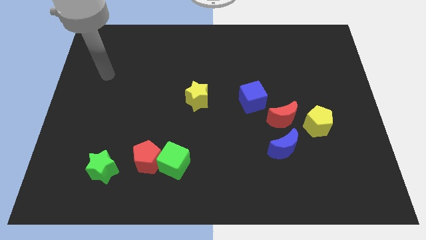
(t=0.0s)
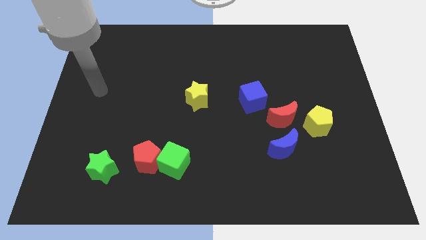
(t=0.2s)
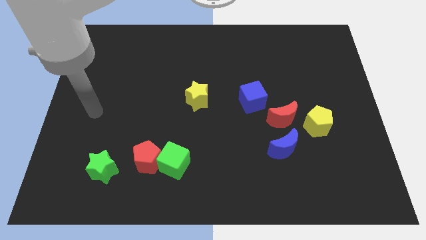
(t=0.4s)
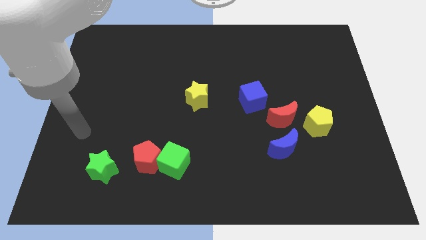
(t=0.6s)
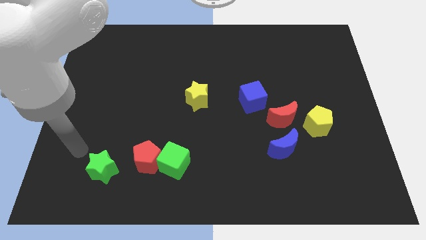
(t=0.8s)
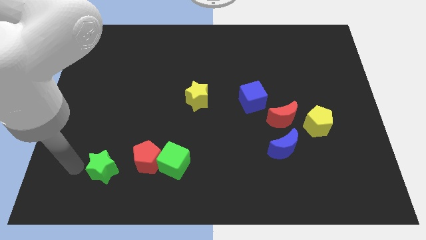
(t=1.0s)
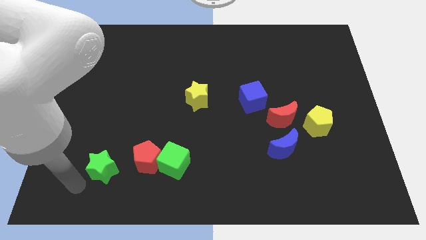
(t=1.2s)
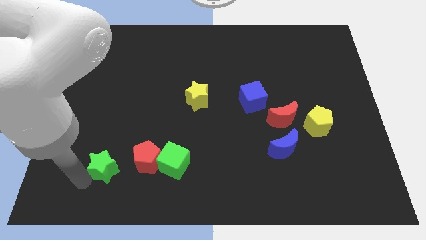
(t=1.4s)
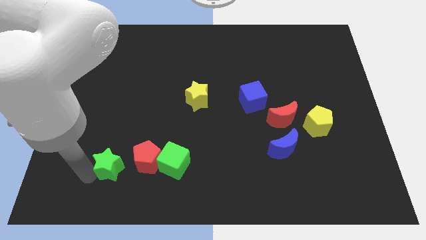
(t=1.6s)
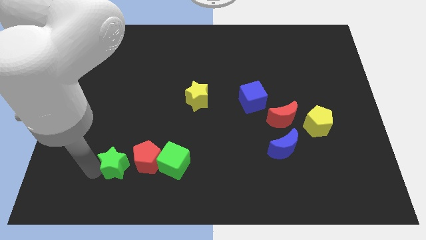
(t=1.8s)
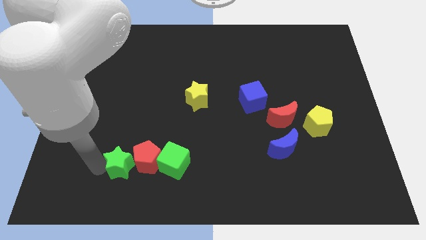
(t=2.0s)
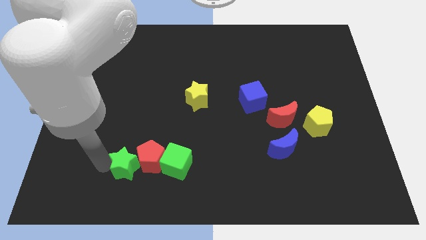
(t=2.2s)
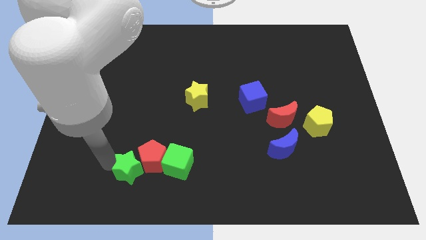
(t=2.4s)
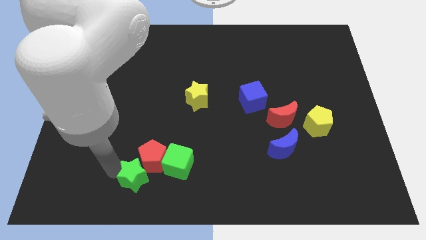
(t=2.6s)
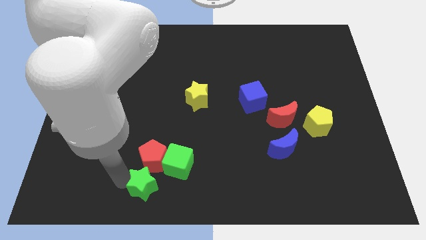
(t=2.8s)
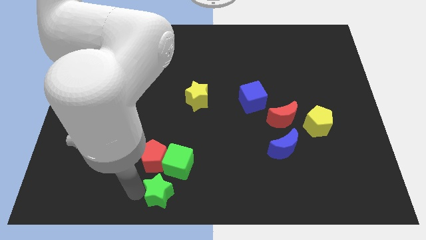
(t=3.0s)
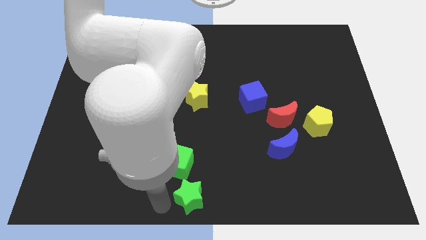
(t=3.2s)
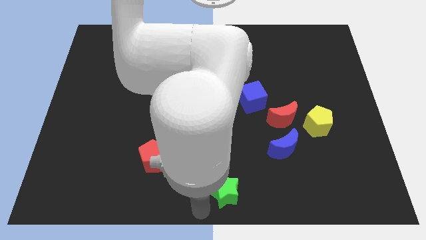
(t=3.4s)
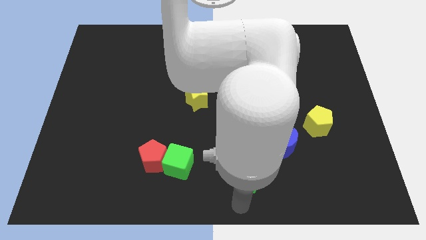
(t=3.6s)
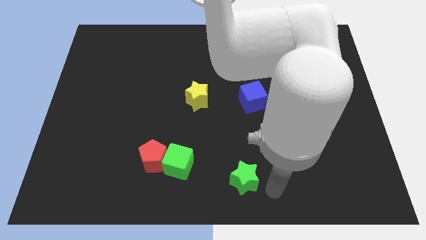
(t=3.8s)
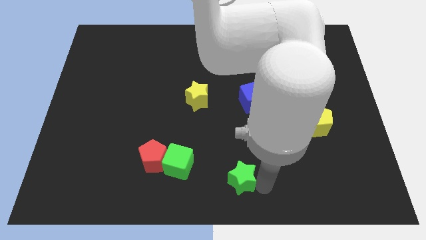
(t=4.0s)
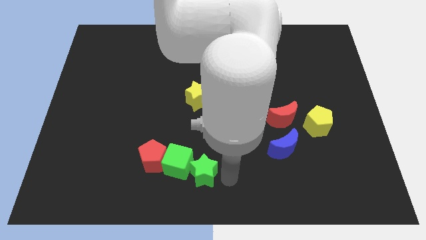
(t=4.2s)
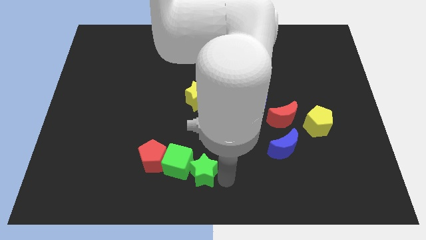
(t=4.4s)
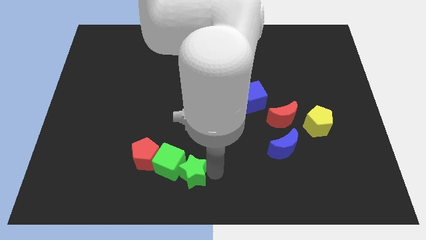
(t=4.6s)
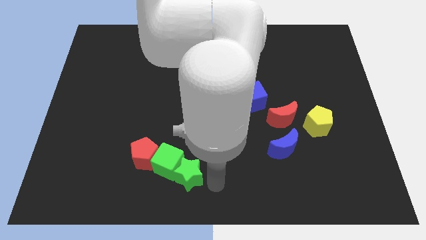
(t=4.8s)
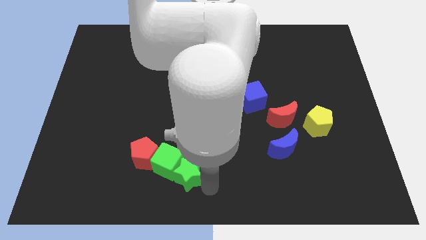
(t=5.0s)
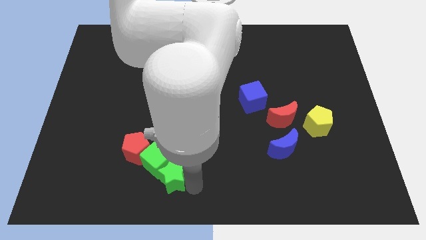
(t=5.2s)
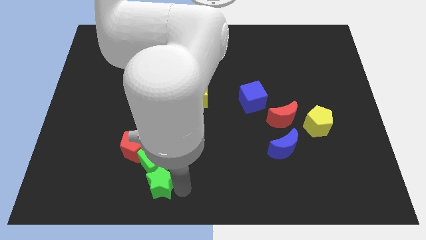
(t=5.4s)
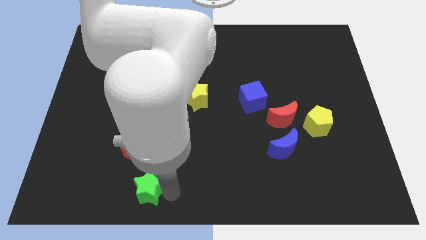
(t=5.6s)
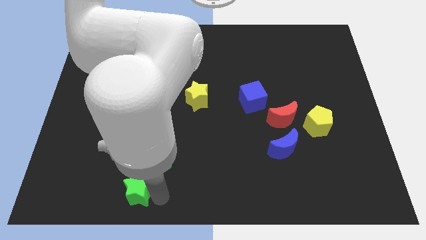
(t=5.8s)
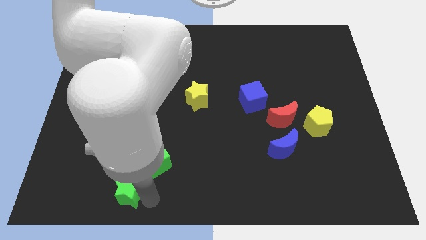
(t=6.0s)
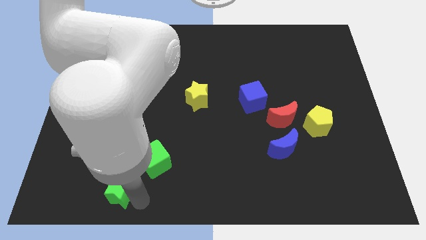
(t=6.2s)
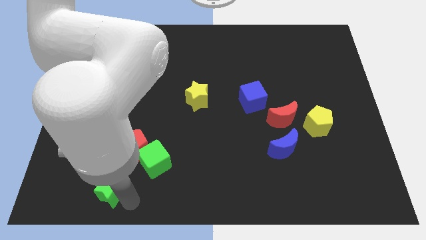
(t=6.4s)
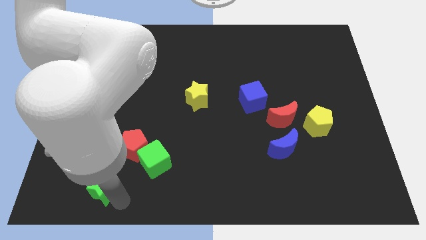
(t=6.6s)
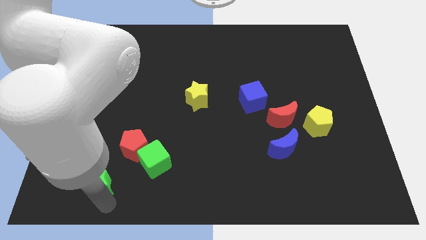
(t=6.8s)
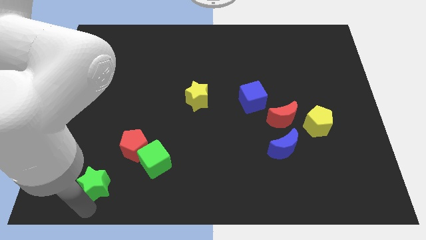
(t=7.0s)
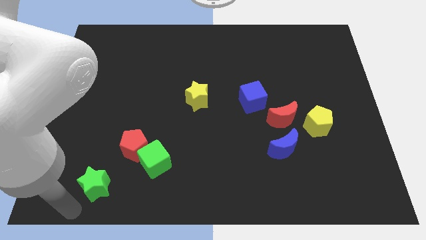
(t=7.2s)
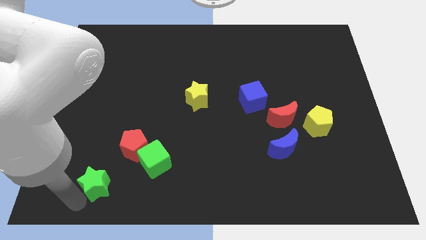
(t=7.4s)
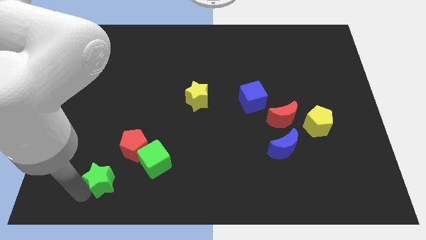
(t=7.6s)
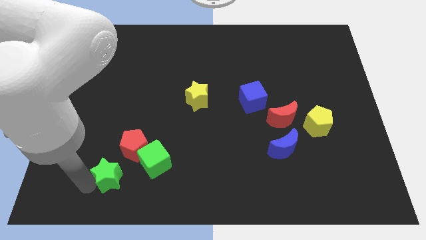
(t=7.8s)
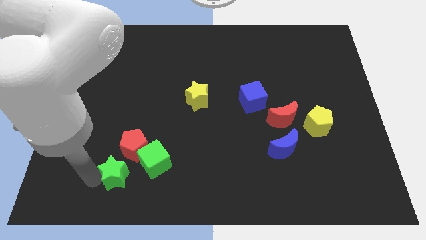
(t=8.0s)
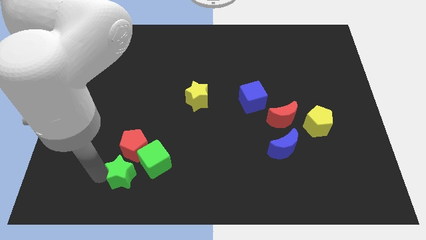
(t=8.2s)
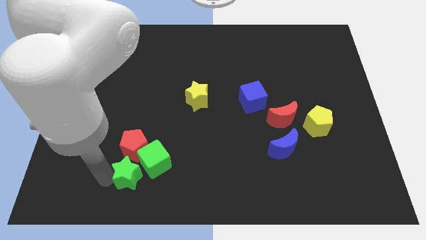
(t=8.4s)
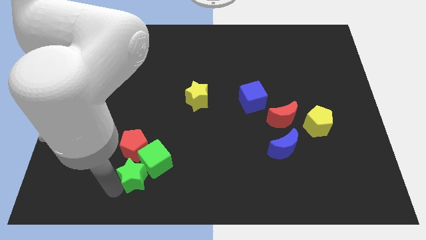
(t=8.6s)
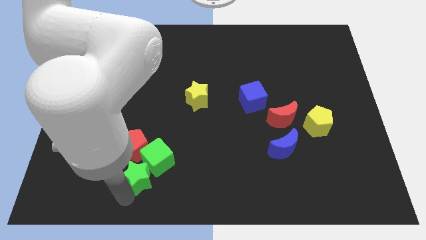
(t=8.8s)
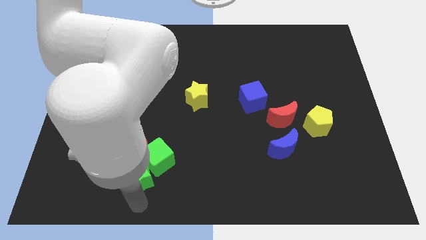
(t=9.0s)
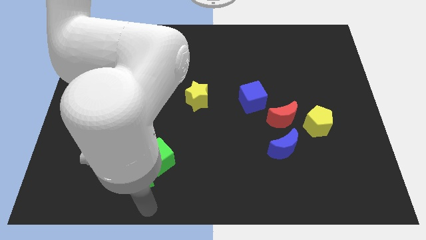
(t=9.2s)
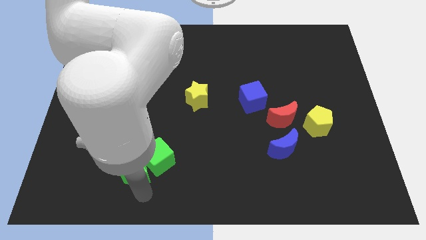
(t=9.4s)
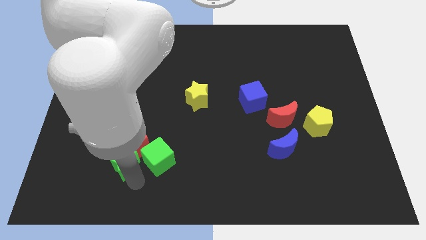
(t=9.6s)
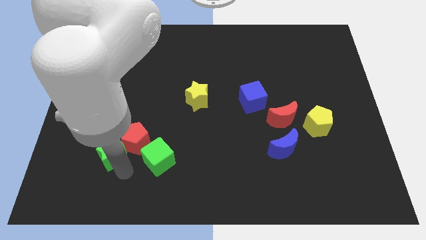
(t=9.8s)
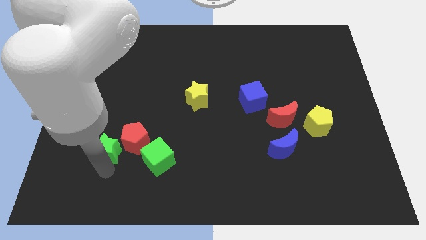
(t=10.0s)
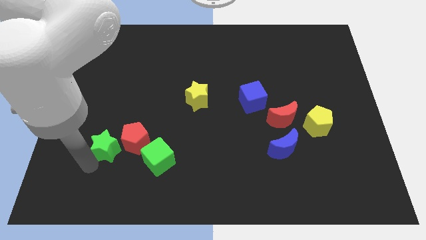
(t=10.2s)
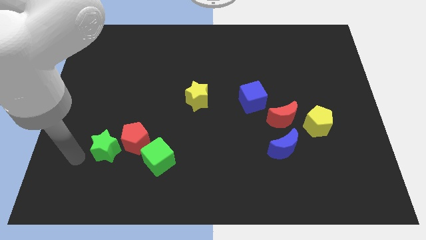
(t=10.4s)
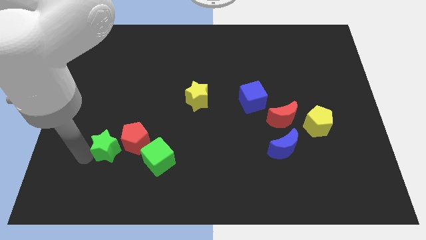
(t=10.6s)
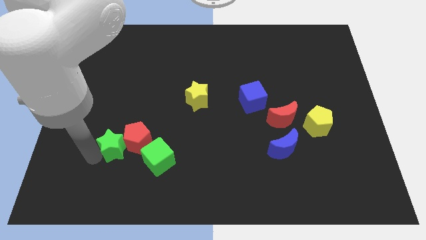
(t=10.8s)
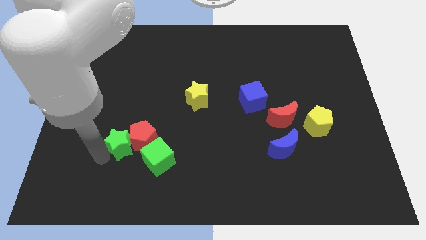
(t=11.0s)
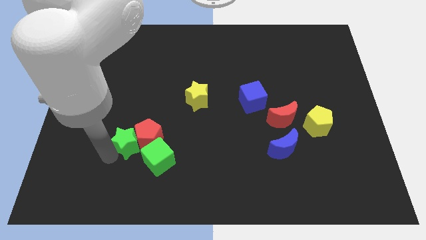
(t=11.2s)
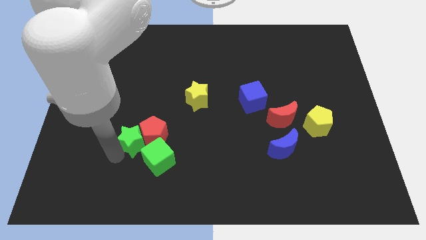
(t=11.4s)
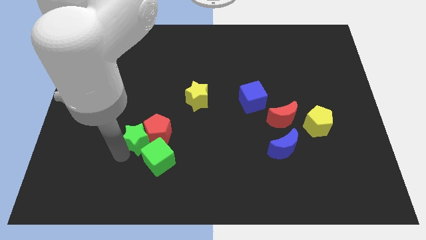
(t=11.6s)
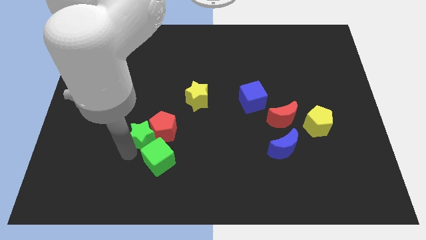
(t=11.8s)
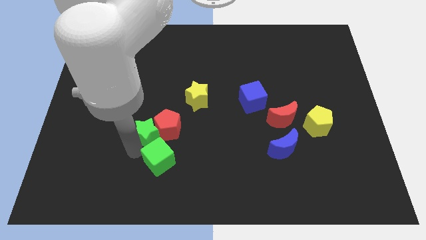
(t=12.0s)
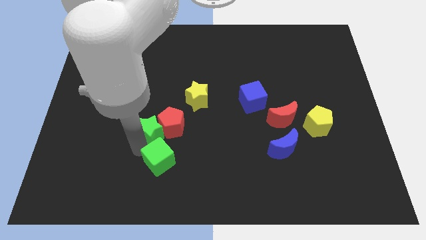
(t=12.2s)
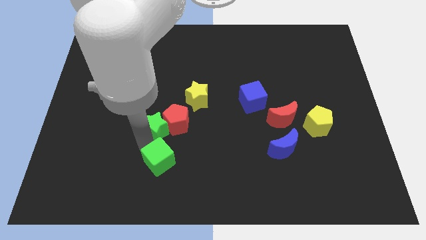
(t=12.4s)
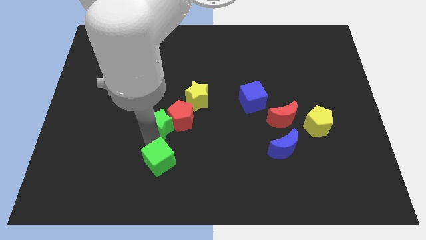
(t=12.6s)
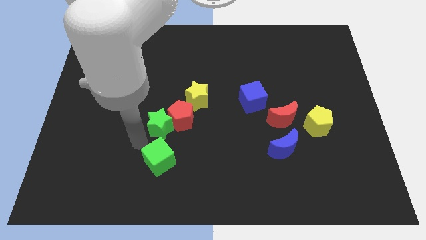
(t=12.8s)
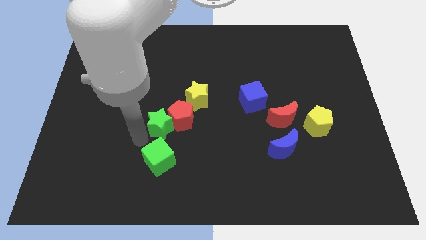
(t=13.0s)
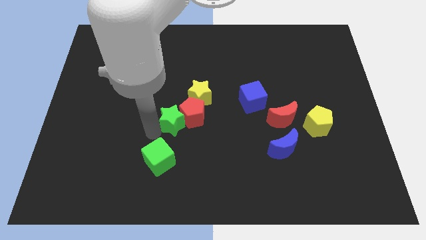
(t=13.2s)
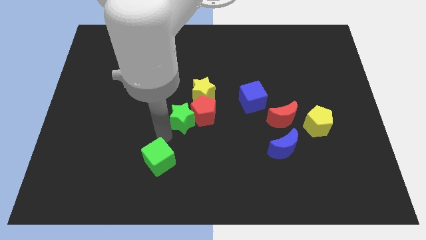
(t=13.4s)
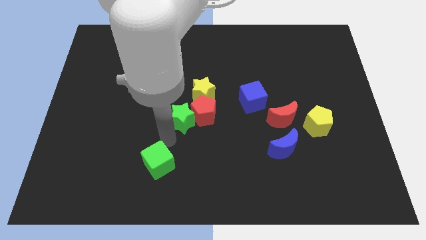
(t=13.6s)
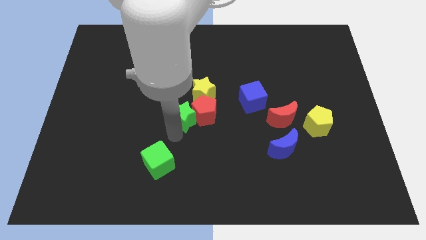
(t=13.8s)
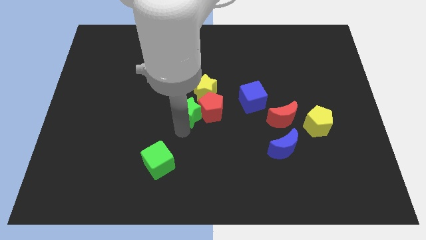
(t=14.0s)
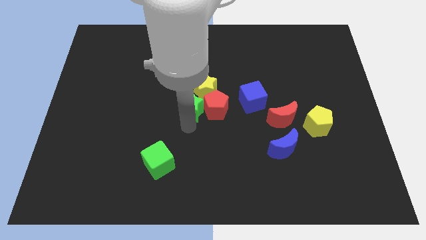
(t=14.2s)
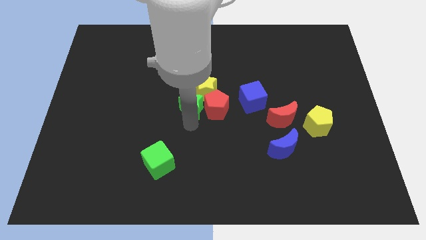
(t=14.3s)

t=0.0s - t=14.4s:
move the green star towards the yellow star
